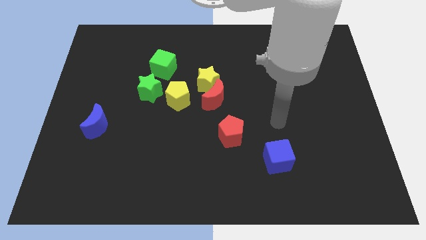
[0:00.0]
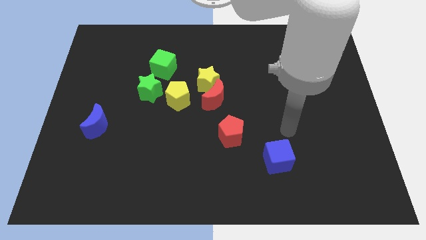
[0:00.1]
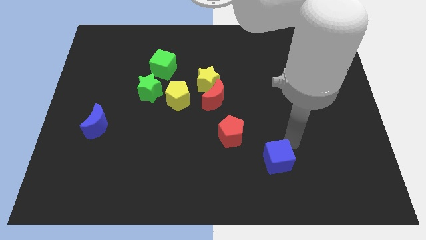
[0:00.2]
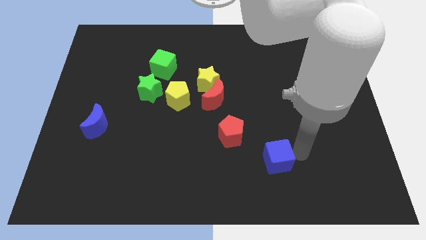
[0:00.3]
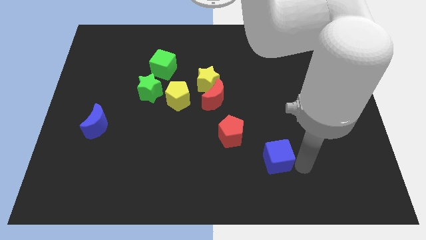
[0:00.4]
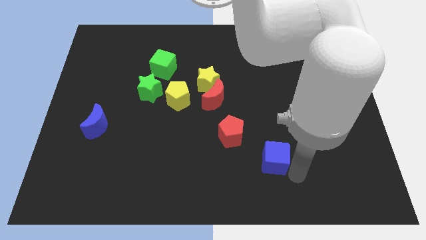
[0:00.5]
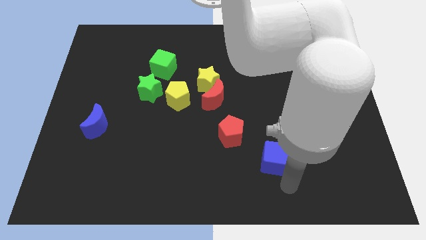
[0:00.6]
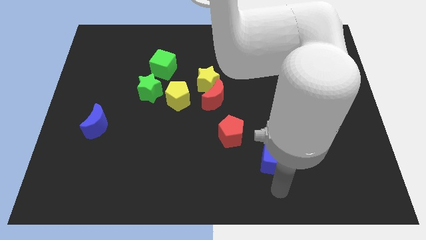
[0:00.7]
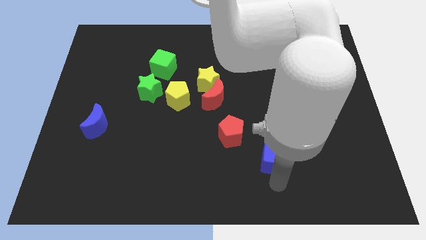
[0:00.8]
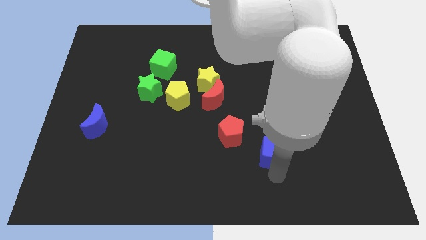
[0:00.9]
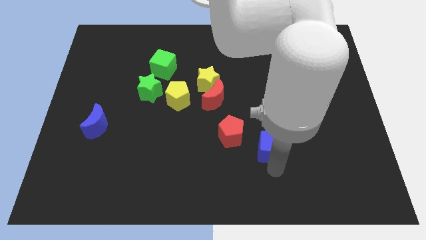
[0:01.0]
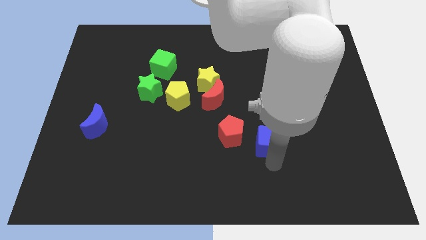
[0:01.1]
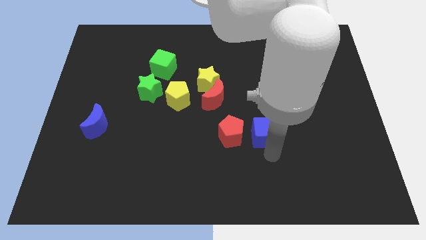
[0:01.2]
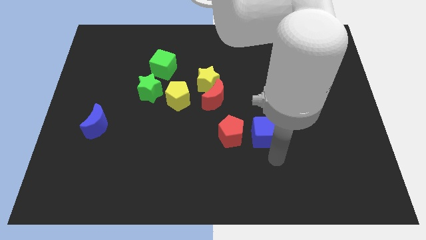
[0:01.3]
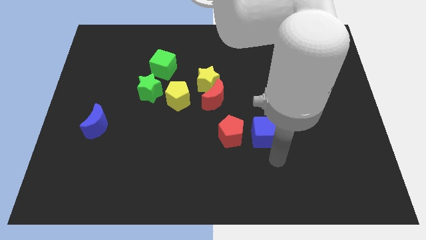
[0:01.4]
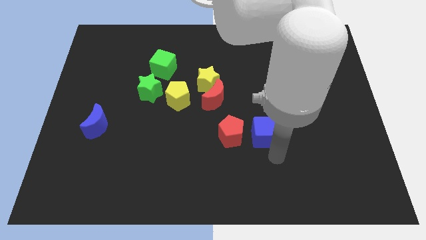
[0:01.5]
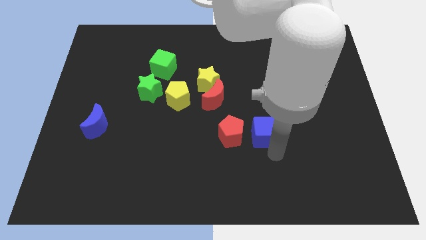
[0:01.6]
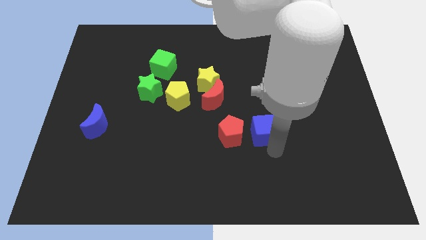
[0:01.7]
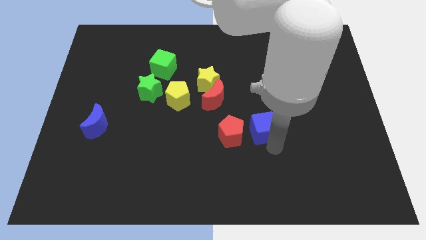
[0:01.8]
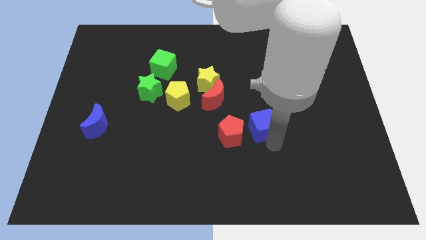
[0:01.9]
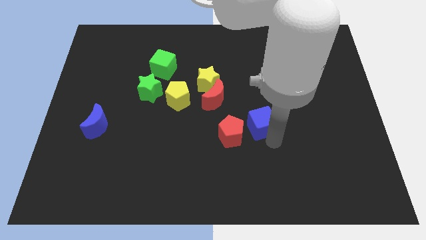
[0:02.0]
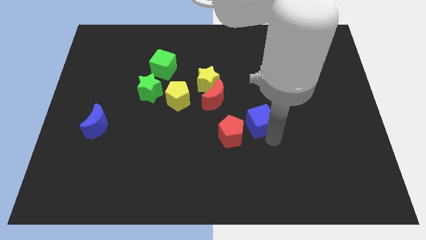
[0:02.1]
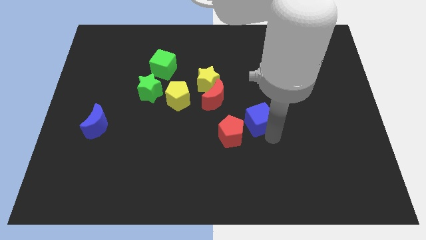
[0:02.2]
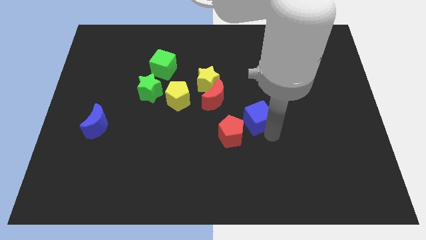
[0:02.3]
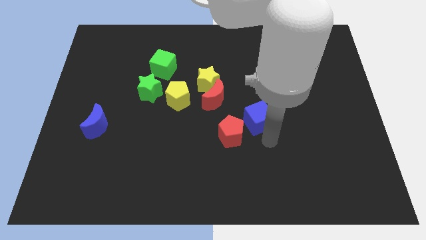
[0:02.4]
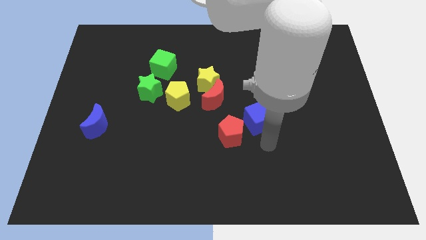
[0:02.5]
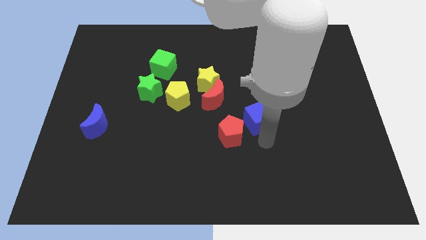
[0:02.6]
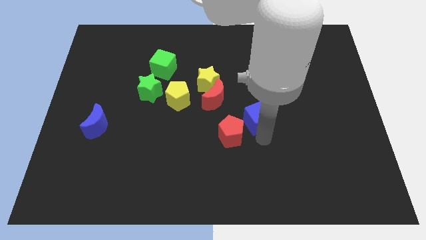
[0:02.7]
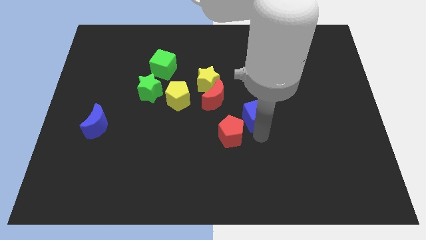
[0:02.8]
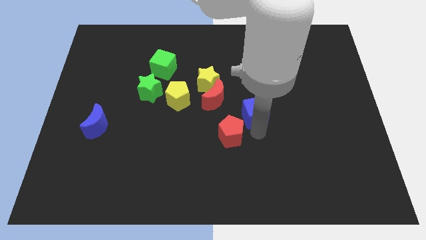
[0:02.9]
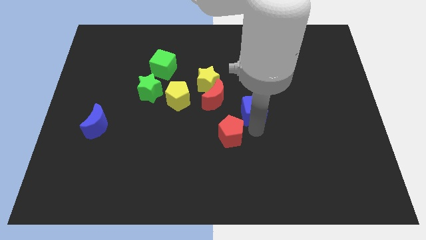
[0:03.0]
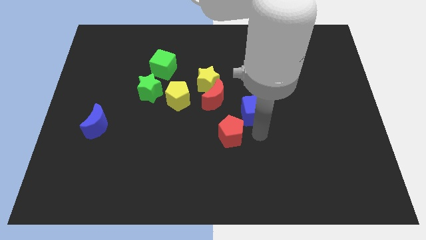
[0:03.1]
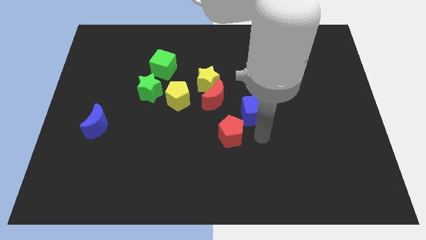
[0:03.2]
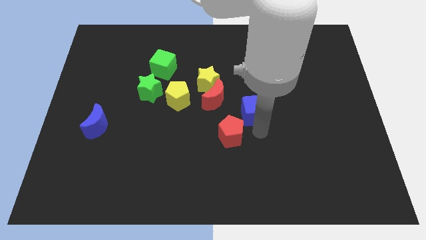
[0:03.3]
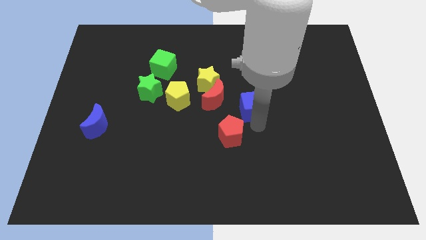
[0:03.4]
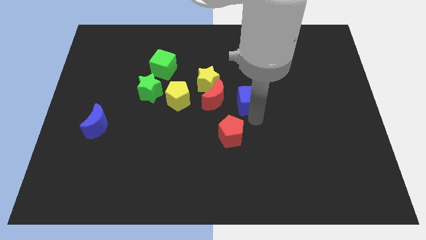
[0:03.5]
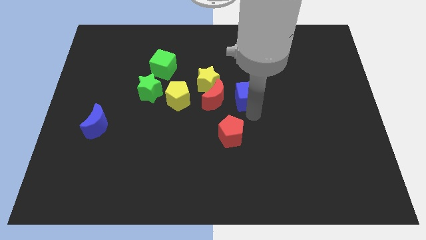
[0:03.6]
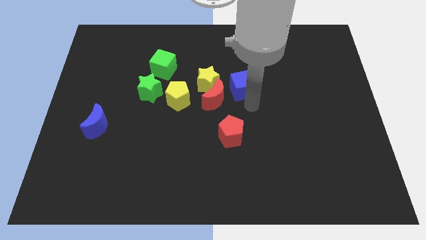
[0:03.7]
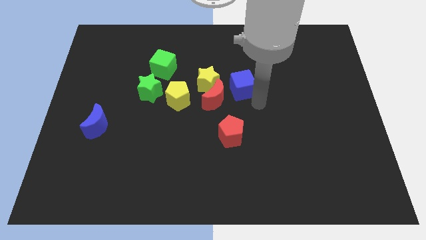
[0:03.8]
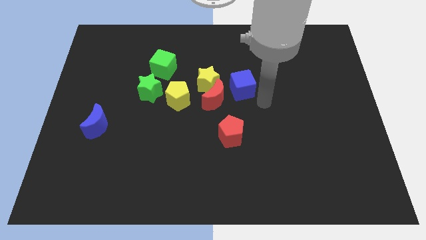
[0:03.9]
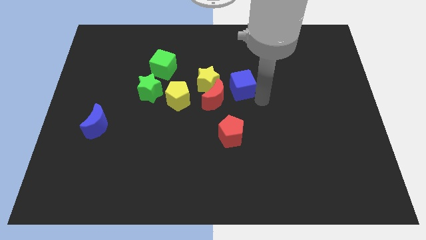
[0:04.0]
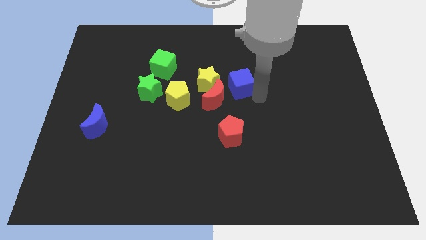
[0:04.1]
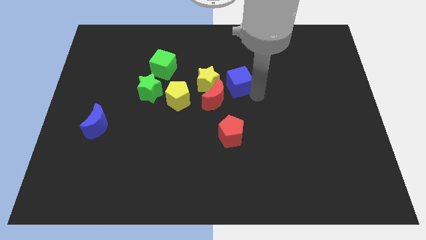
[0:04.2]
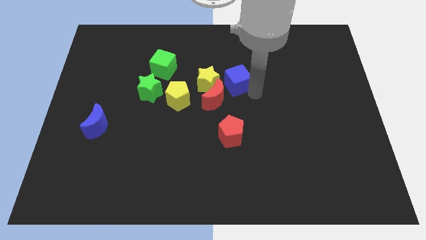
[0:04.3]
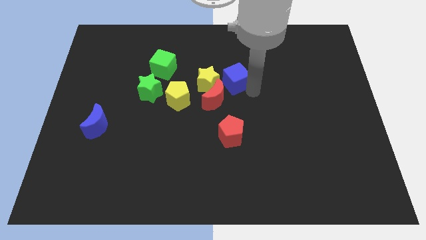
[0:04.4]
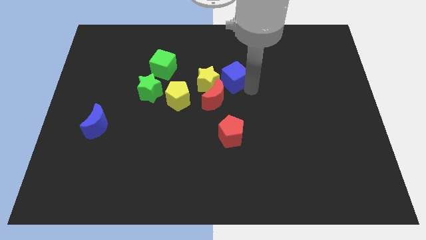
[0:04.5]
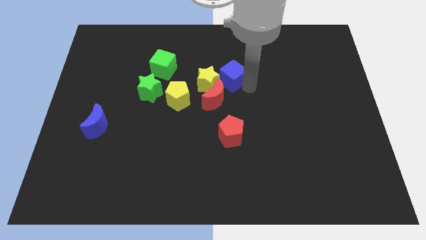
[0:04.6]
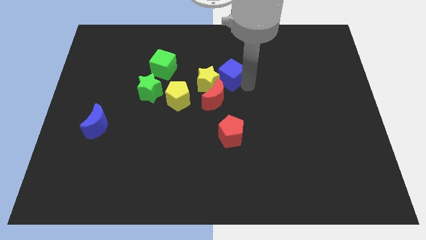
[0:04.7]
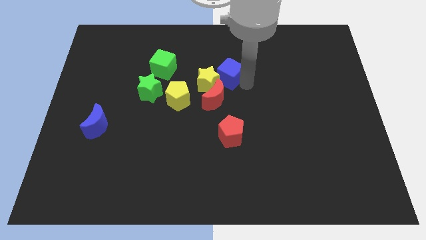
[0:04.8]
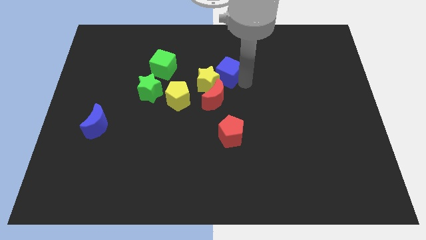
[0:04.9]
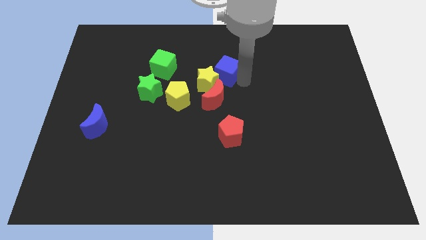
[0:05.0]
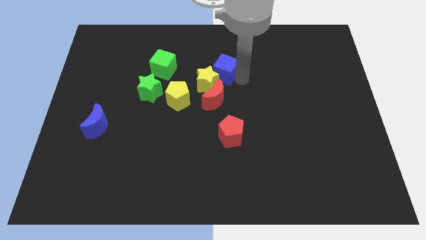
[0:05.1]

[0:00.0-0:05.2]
move the blue cube up and left diagonally

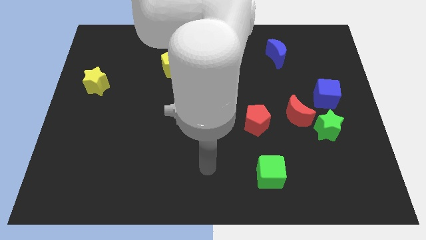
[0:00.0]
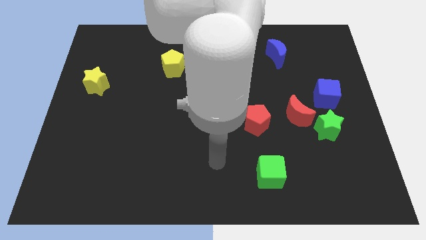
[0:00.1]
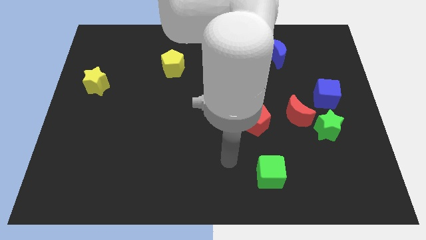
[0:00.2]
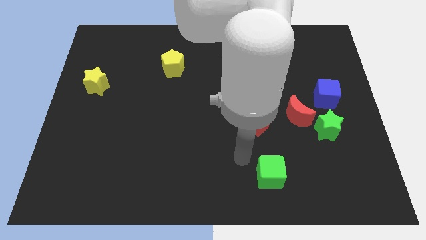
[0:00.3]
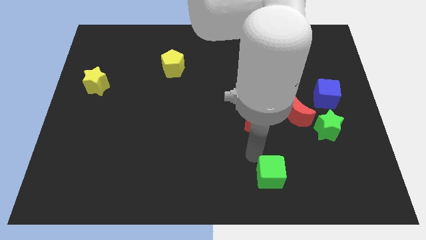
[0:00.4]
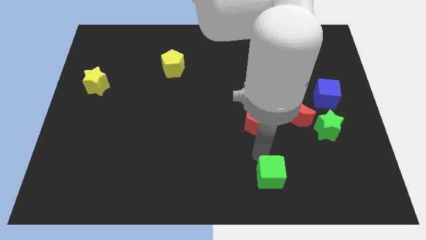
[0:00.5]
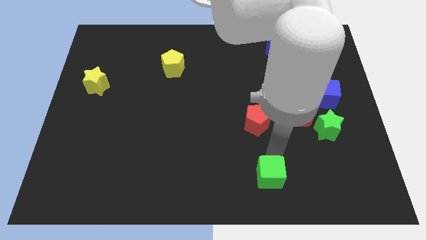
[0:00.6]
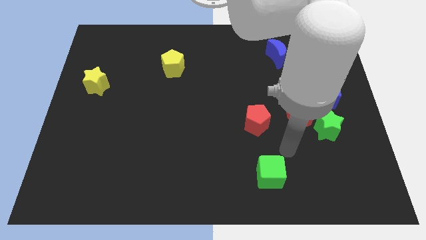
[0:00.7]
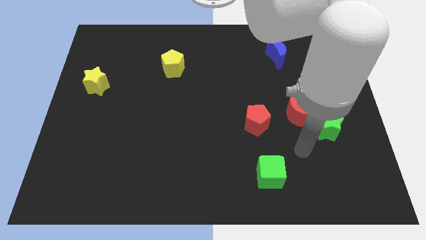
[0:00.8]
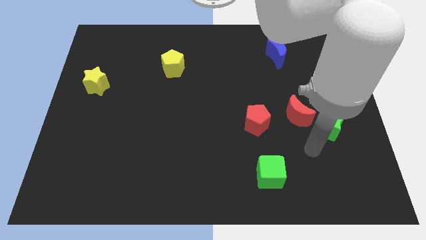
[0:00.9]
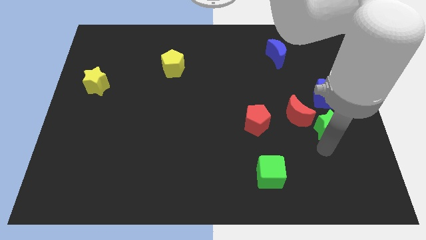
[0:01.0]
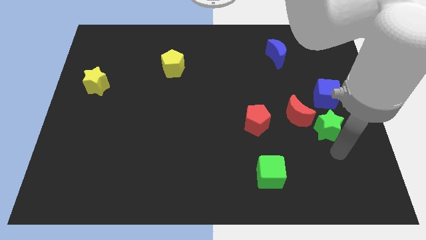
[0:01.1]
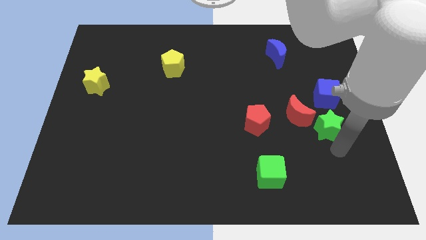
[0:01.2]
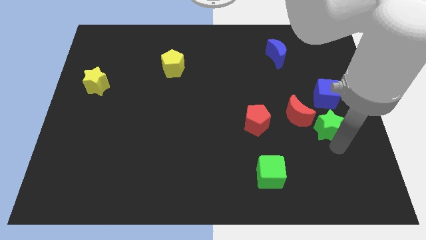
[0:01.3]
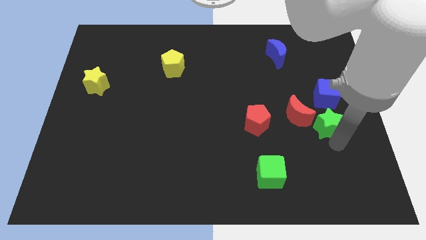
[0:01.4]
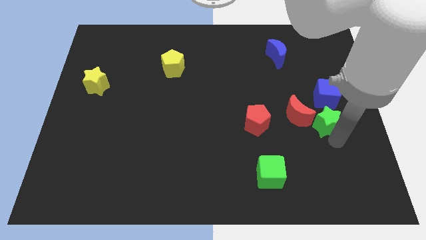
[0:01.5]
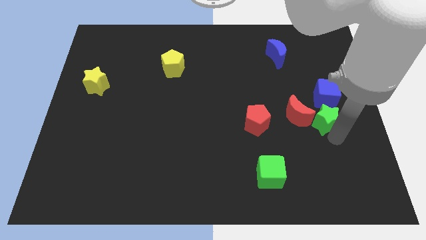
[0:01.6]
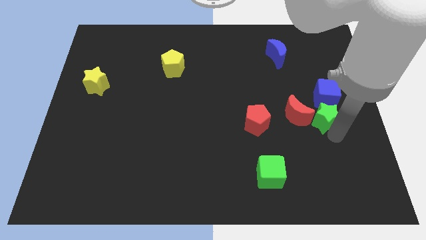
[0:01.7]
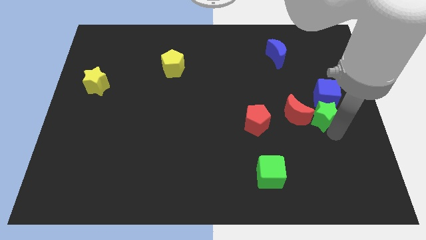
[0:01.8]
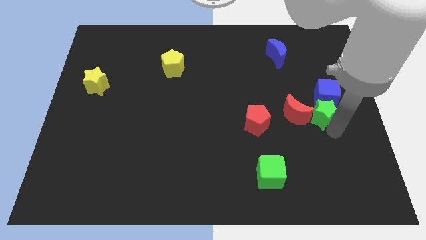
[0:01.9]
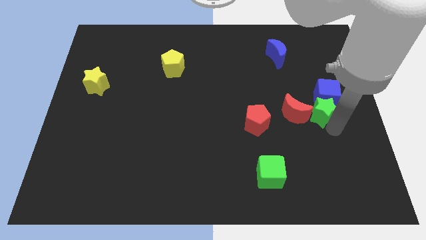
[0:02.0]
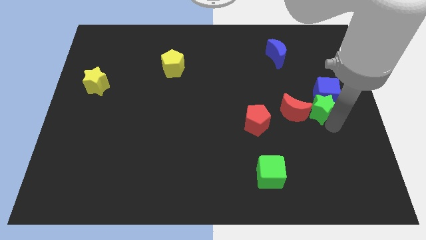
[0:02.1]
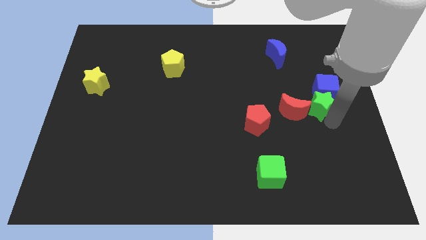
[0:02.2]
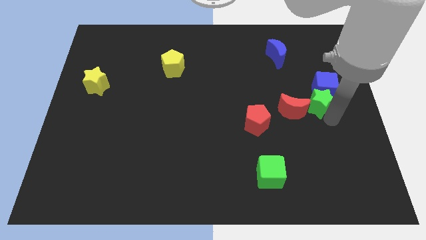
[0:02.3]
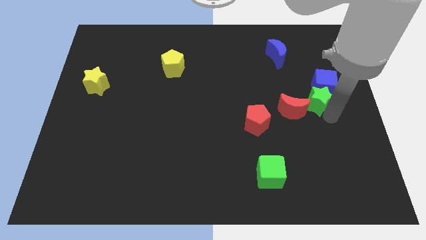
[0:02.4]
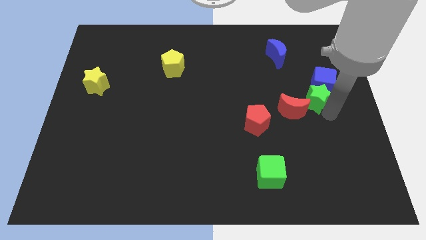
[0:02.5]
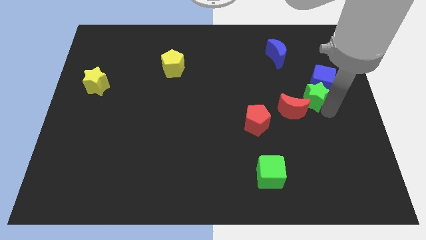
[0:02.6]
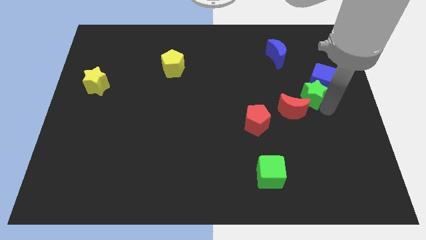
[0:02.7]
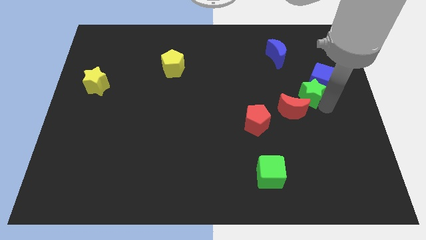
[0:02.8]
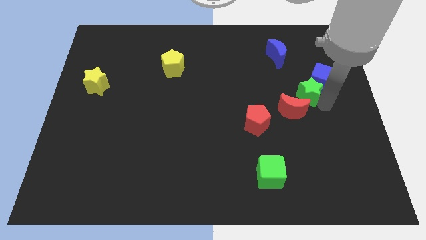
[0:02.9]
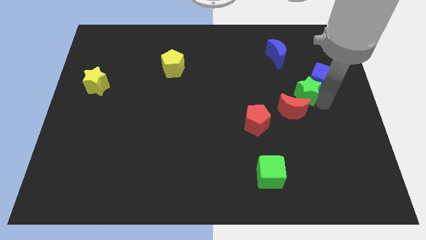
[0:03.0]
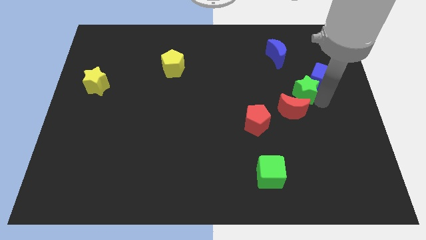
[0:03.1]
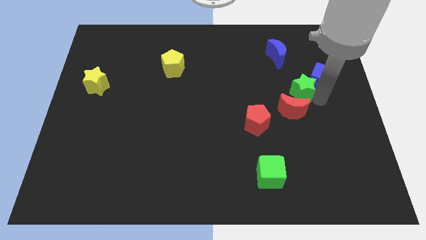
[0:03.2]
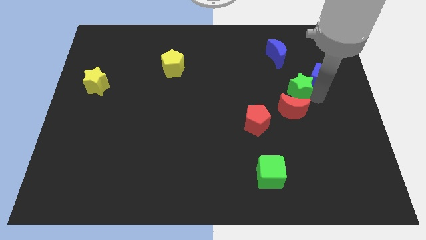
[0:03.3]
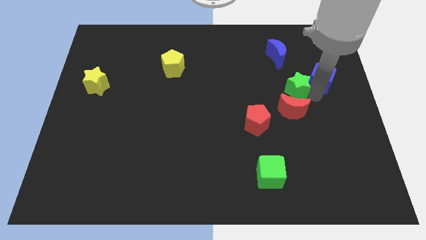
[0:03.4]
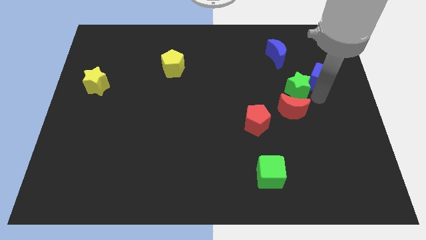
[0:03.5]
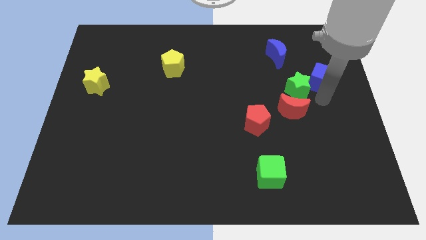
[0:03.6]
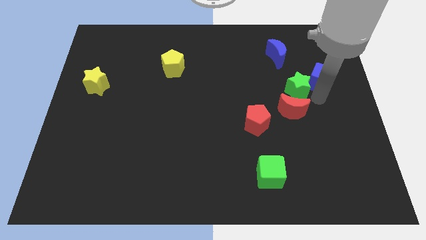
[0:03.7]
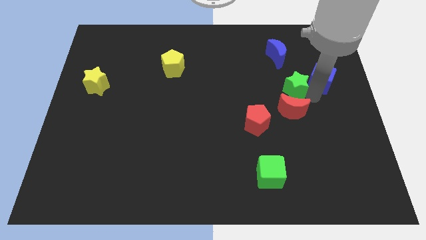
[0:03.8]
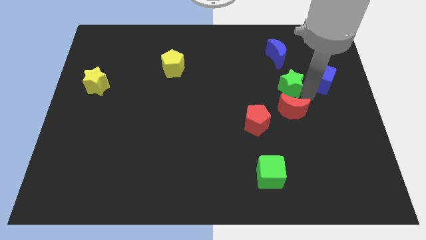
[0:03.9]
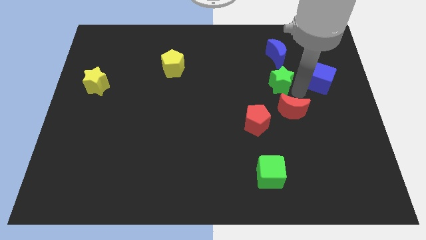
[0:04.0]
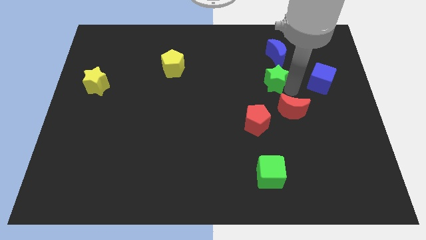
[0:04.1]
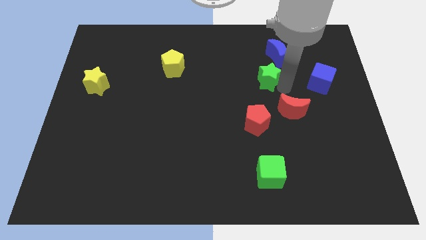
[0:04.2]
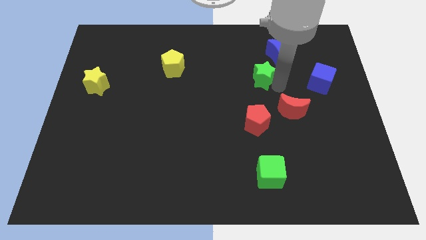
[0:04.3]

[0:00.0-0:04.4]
move the green star upwards and left diagonally
